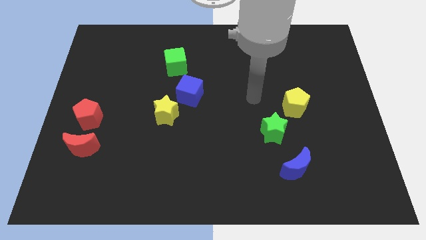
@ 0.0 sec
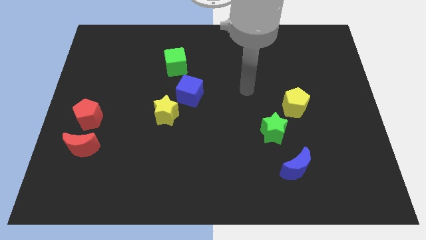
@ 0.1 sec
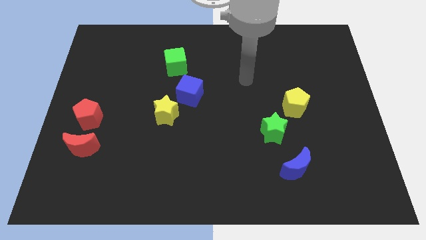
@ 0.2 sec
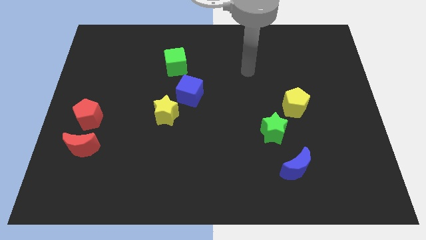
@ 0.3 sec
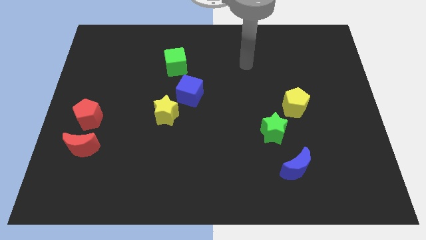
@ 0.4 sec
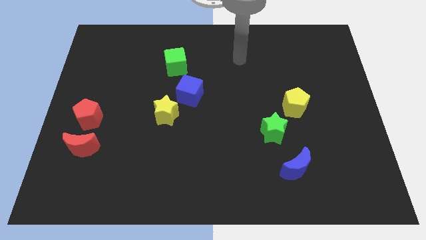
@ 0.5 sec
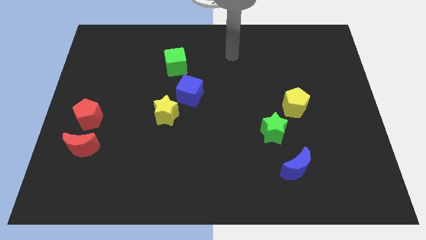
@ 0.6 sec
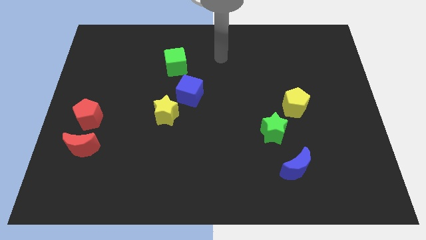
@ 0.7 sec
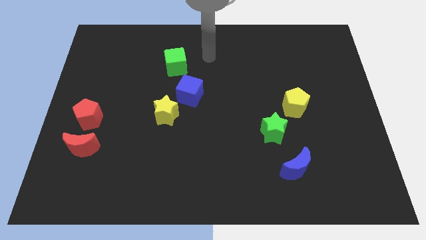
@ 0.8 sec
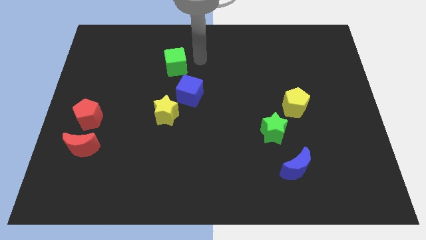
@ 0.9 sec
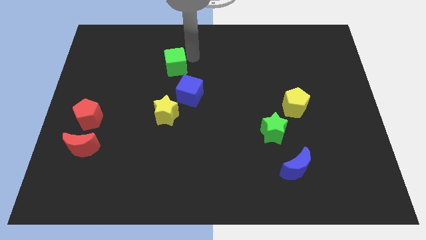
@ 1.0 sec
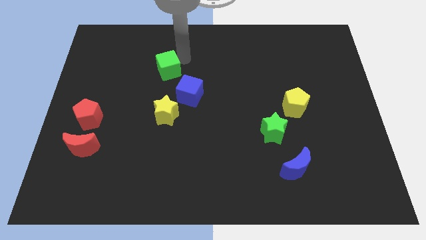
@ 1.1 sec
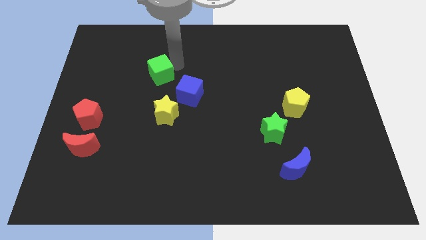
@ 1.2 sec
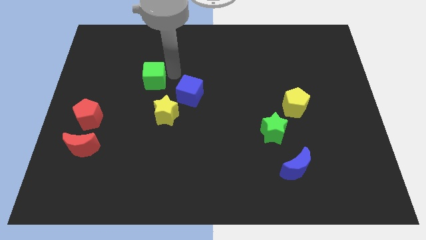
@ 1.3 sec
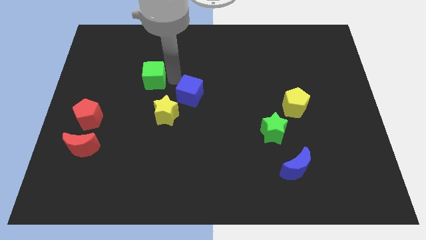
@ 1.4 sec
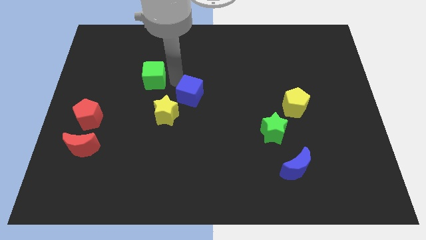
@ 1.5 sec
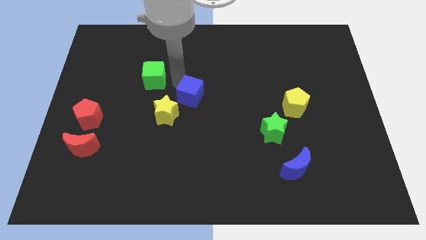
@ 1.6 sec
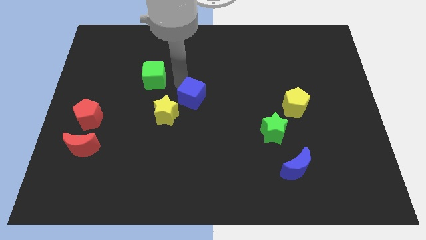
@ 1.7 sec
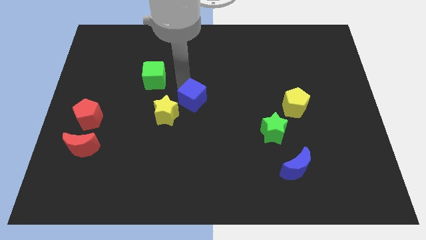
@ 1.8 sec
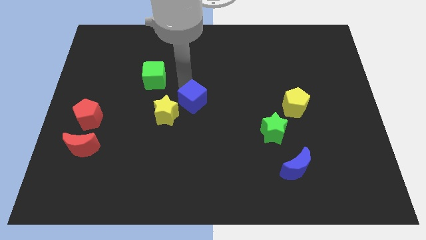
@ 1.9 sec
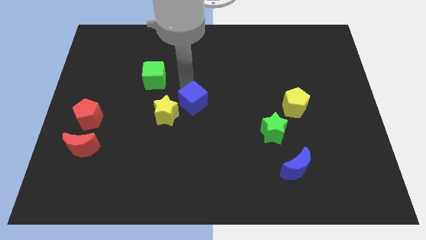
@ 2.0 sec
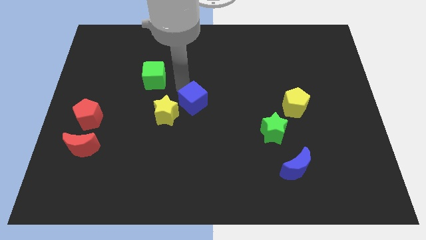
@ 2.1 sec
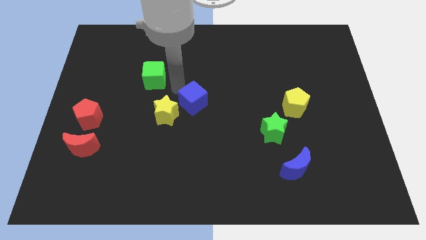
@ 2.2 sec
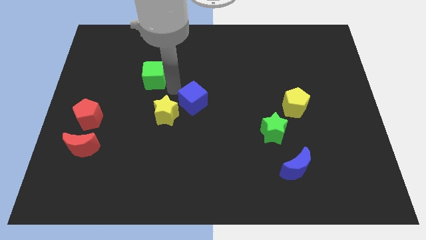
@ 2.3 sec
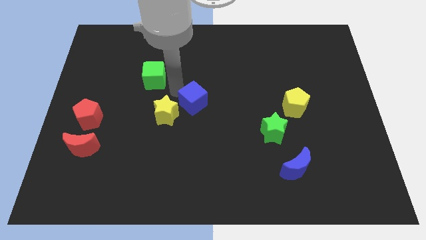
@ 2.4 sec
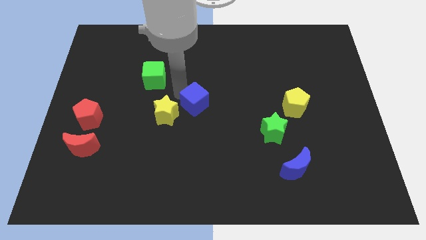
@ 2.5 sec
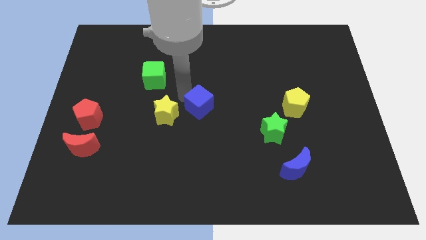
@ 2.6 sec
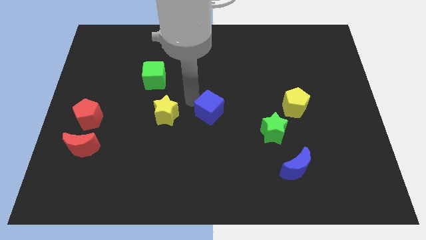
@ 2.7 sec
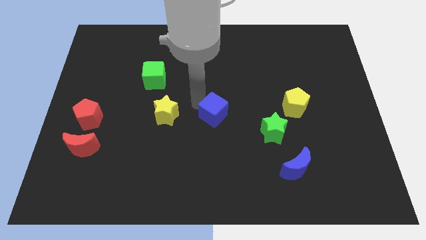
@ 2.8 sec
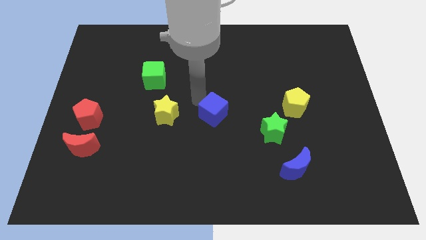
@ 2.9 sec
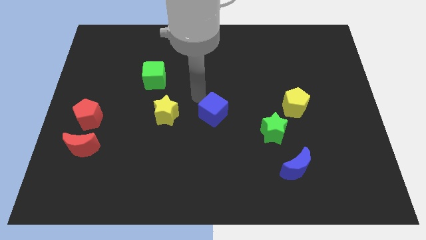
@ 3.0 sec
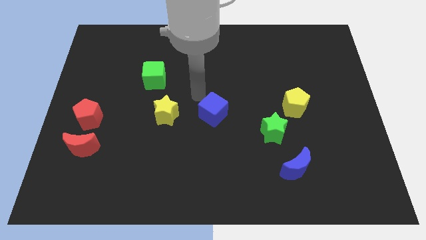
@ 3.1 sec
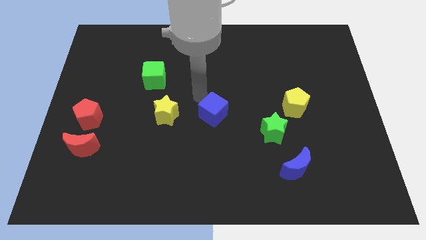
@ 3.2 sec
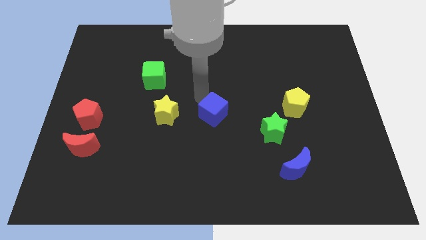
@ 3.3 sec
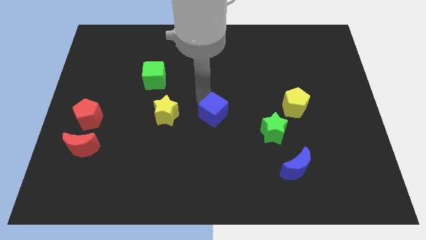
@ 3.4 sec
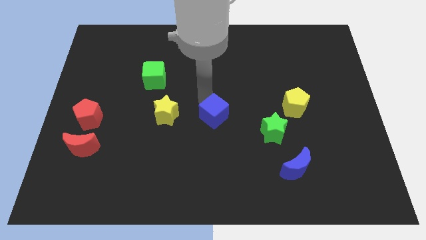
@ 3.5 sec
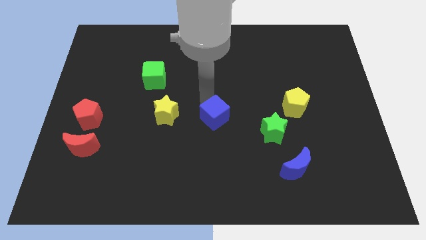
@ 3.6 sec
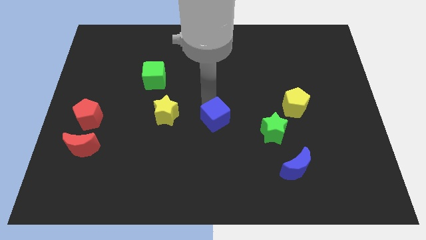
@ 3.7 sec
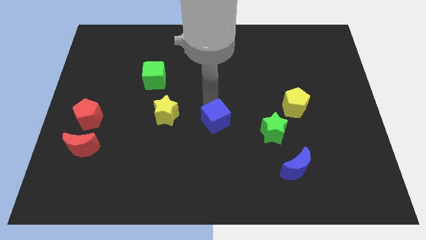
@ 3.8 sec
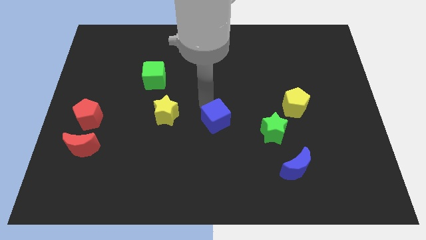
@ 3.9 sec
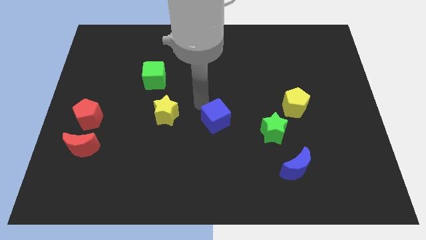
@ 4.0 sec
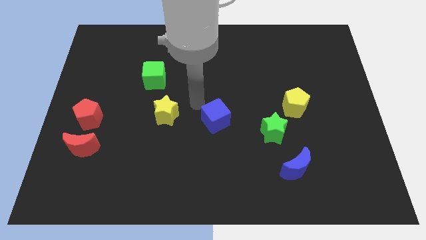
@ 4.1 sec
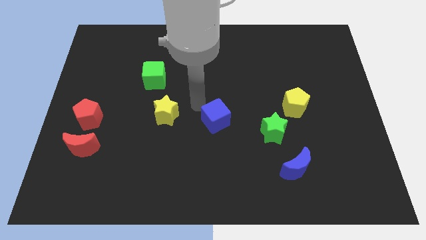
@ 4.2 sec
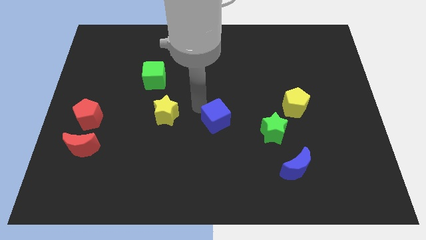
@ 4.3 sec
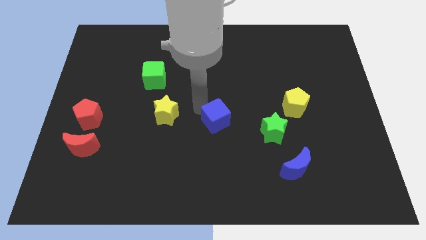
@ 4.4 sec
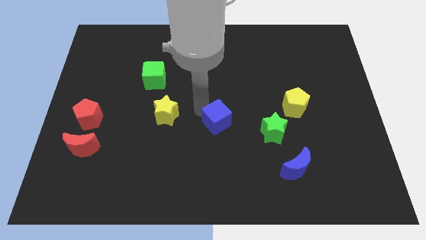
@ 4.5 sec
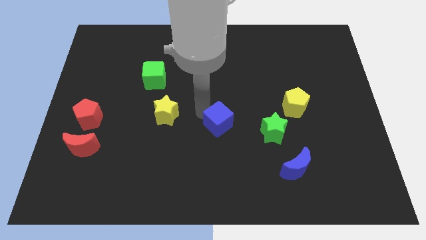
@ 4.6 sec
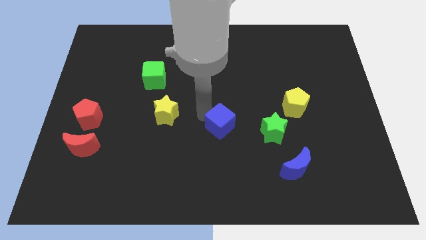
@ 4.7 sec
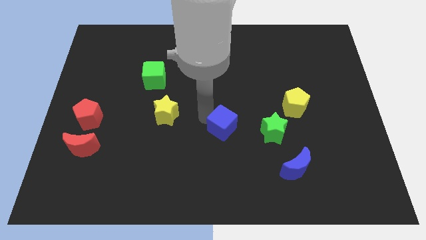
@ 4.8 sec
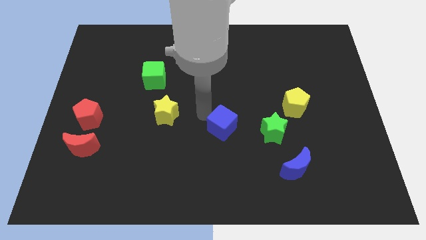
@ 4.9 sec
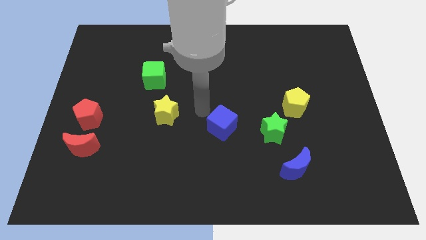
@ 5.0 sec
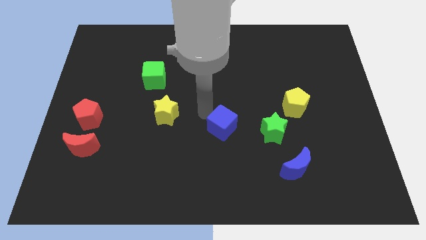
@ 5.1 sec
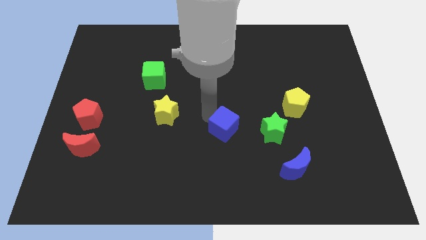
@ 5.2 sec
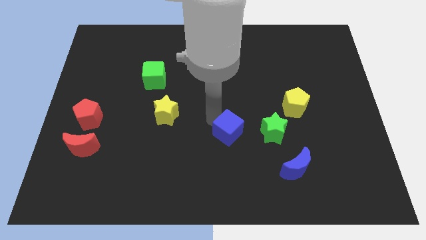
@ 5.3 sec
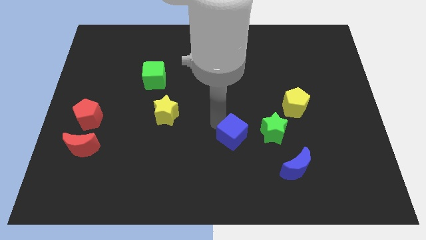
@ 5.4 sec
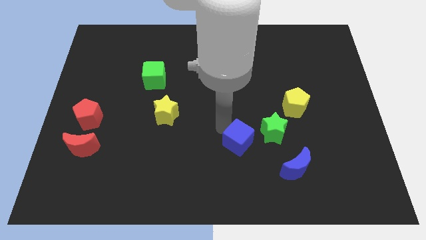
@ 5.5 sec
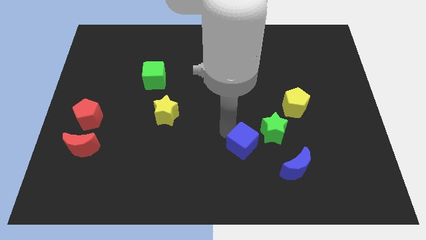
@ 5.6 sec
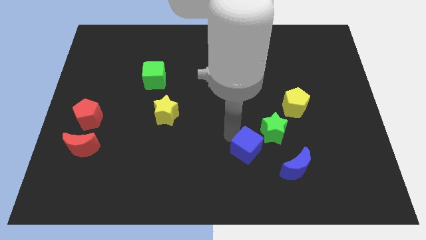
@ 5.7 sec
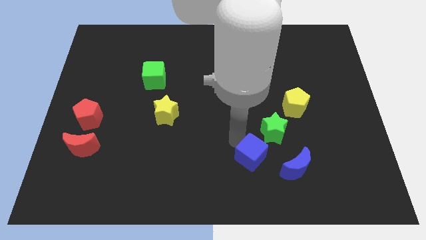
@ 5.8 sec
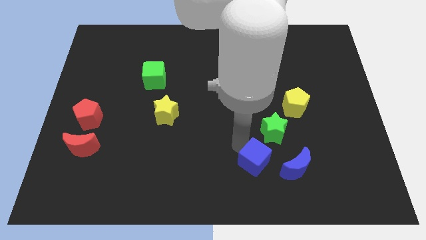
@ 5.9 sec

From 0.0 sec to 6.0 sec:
put the blue cube to the bottom of the green star

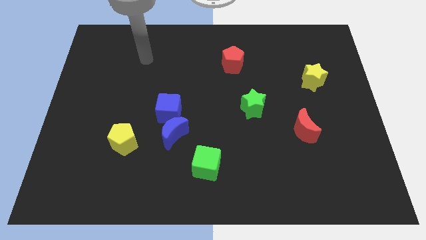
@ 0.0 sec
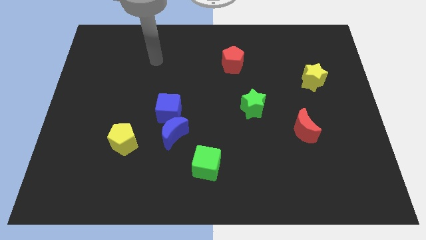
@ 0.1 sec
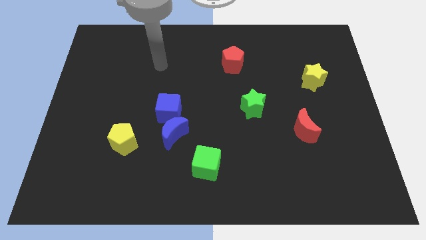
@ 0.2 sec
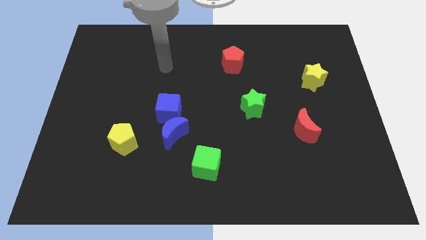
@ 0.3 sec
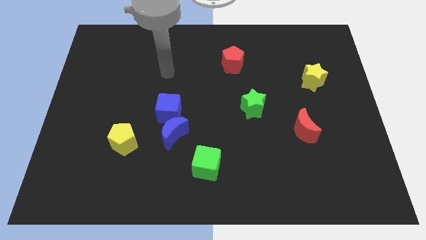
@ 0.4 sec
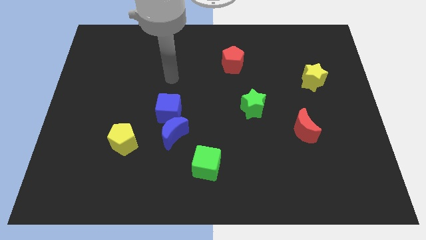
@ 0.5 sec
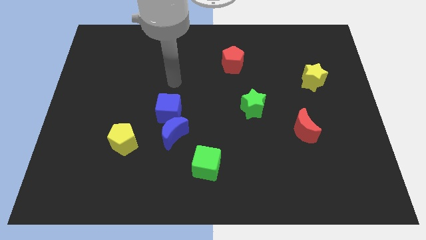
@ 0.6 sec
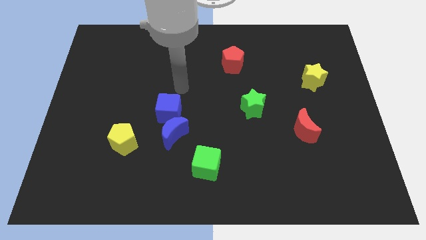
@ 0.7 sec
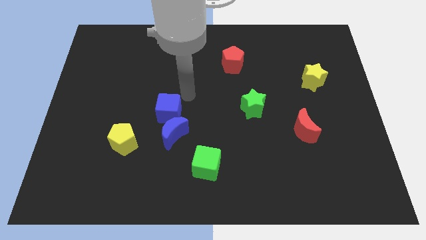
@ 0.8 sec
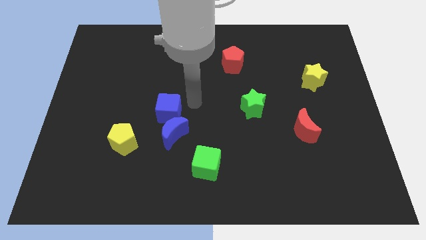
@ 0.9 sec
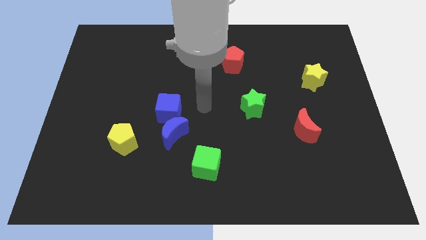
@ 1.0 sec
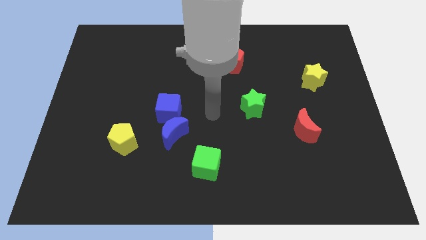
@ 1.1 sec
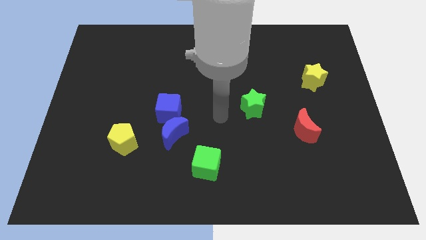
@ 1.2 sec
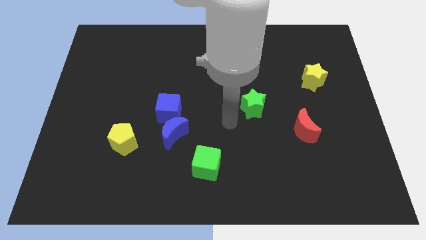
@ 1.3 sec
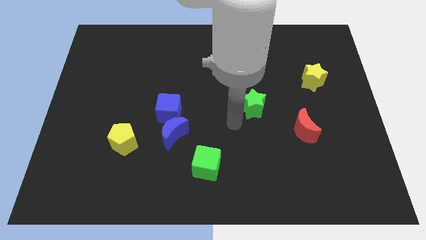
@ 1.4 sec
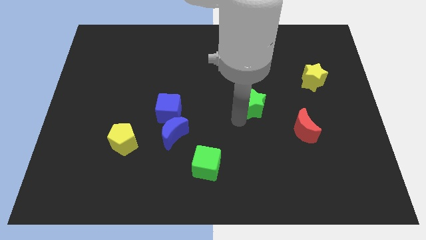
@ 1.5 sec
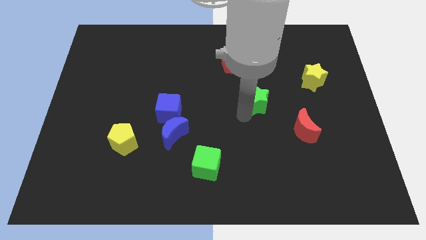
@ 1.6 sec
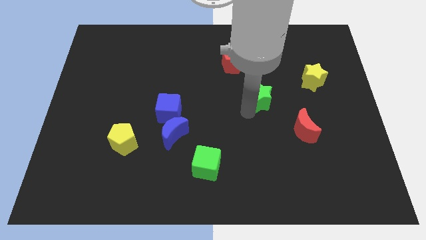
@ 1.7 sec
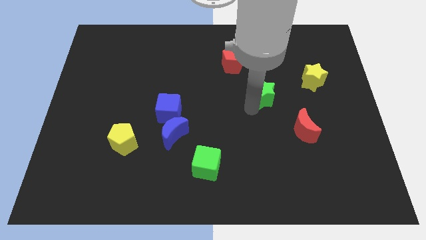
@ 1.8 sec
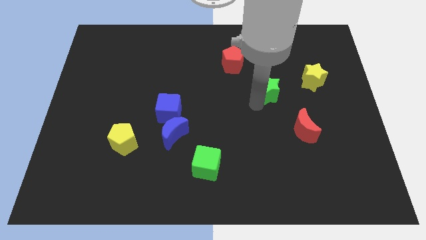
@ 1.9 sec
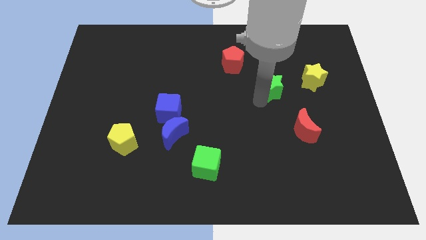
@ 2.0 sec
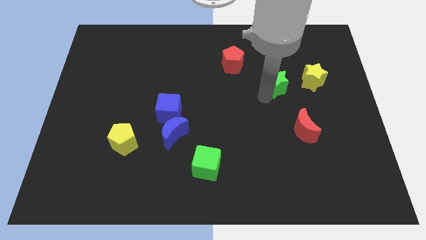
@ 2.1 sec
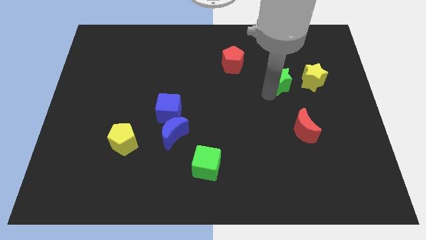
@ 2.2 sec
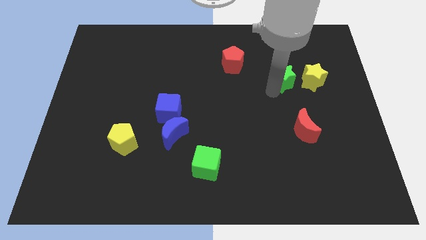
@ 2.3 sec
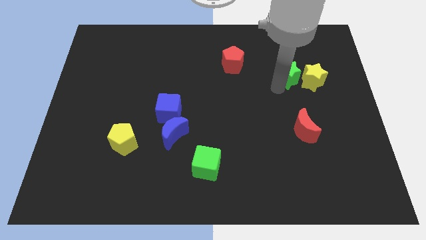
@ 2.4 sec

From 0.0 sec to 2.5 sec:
move the green star to the top left side of the yellow star
